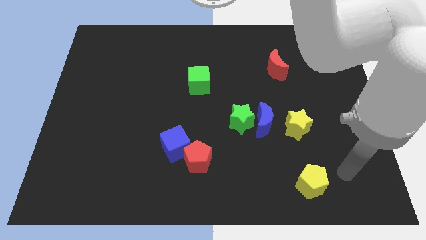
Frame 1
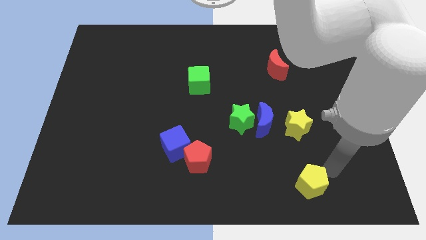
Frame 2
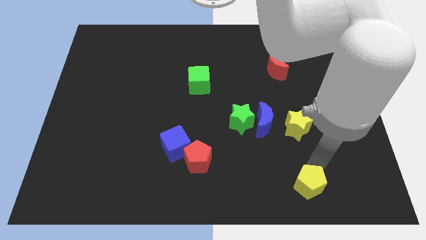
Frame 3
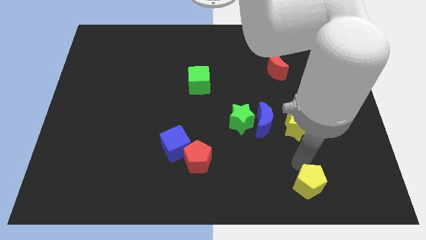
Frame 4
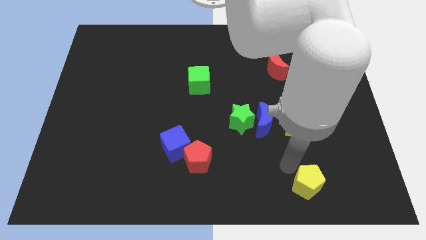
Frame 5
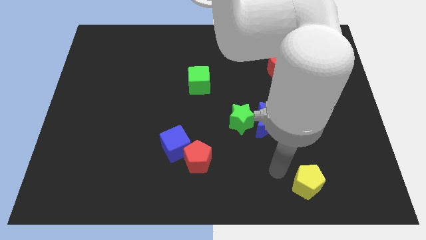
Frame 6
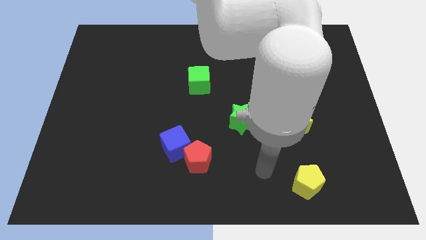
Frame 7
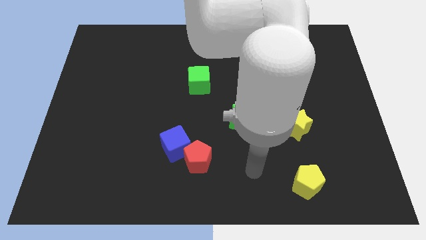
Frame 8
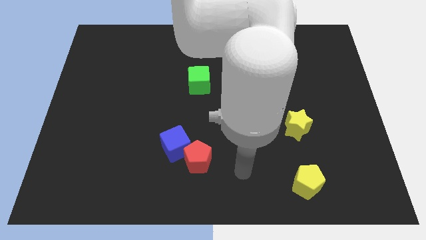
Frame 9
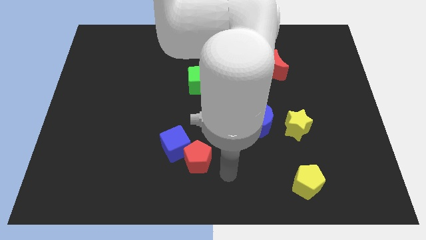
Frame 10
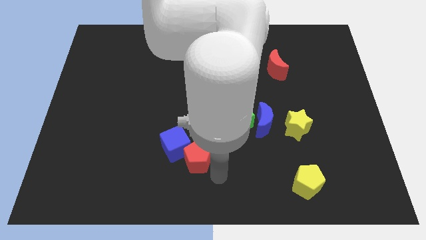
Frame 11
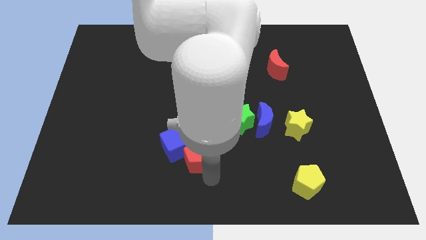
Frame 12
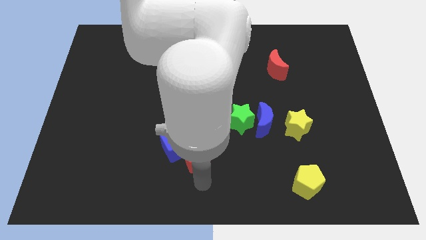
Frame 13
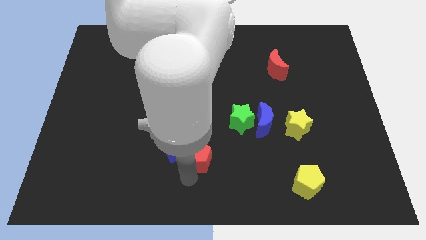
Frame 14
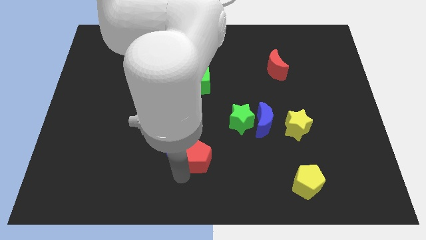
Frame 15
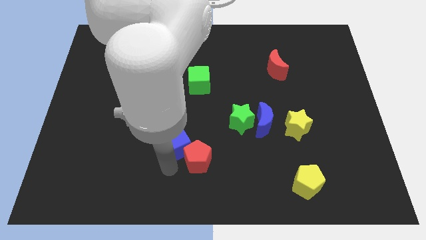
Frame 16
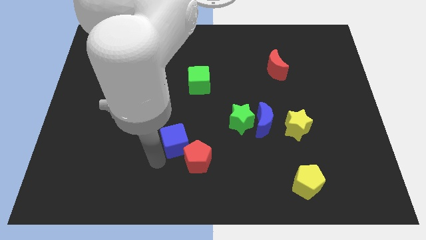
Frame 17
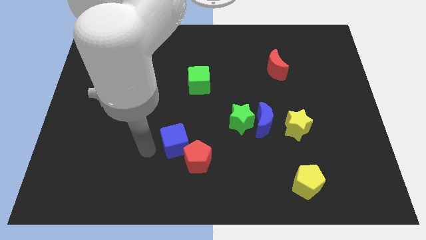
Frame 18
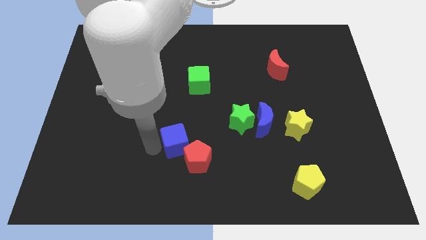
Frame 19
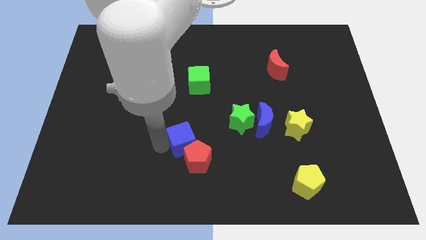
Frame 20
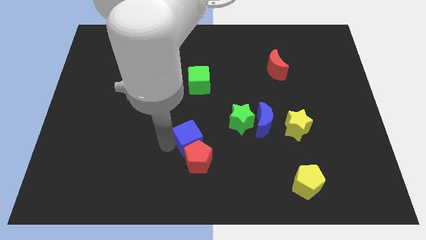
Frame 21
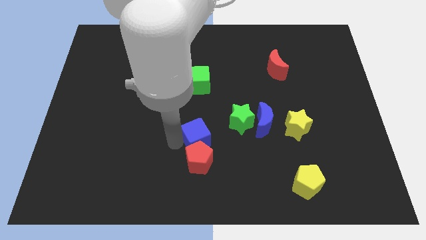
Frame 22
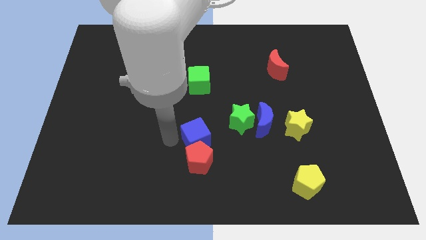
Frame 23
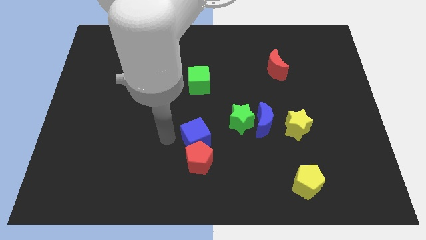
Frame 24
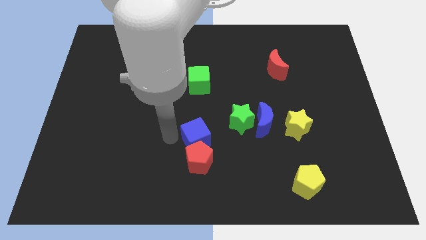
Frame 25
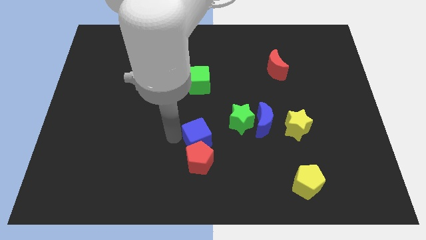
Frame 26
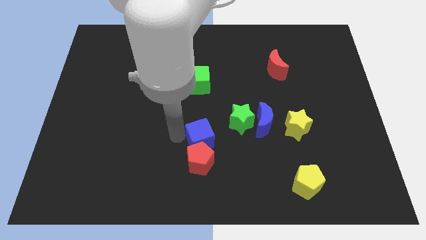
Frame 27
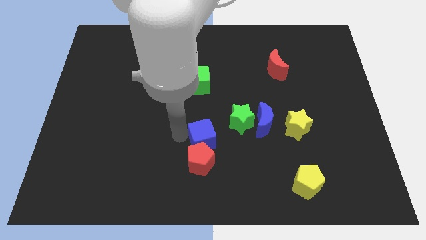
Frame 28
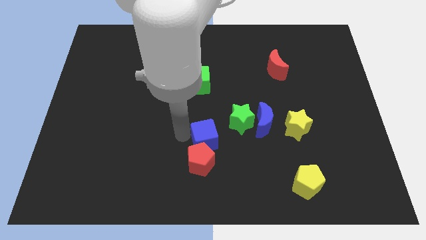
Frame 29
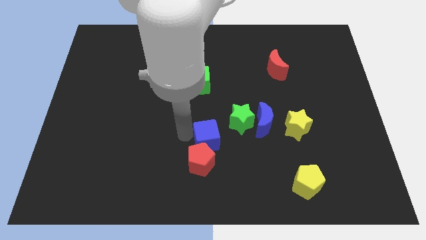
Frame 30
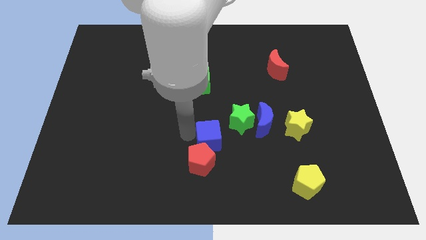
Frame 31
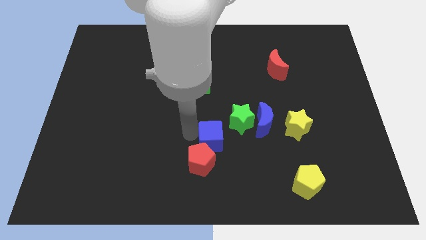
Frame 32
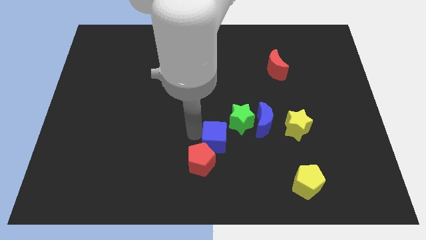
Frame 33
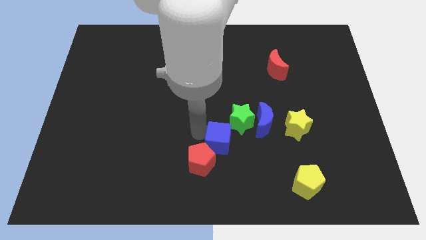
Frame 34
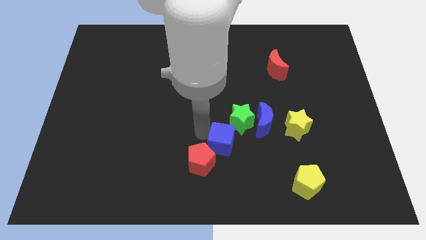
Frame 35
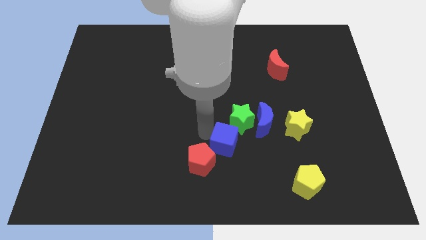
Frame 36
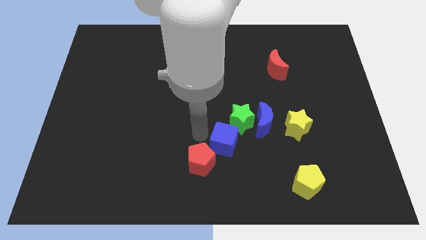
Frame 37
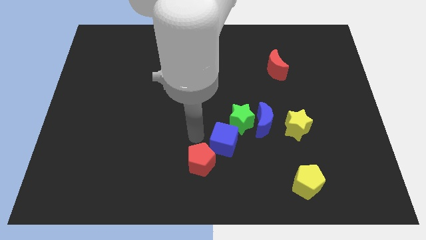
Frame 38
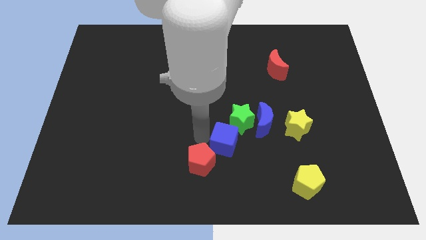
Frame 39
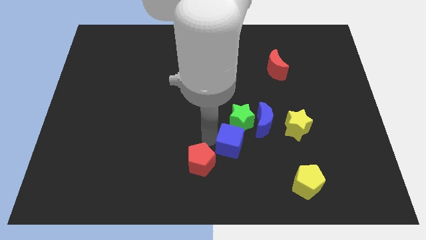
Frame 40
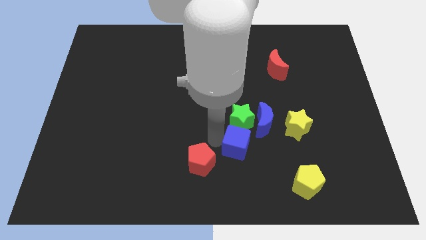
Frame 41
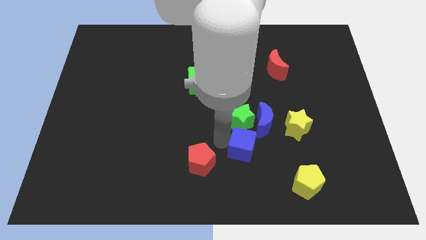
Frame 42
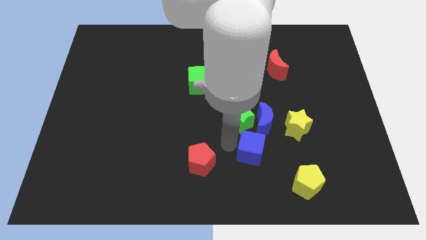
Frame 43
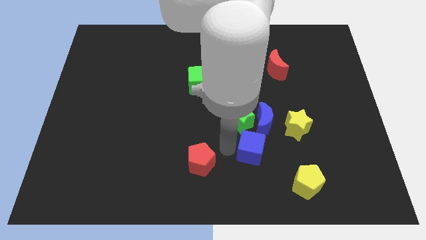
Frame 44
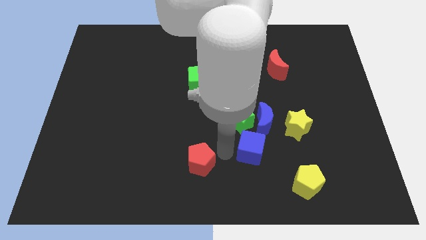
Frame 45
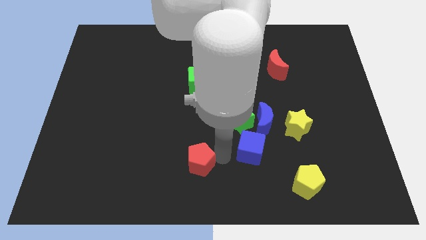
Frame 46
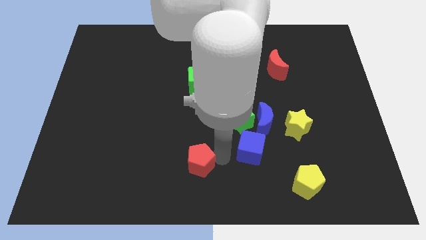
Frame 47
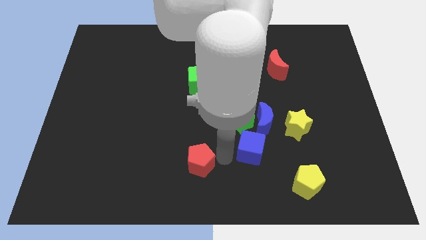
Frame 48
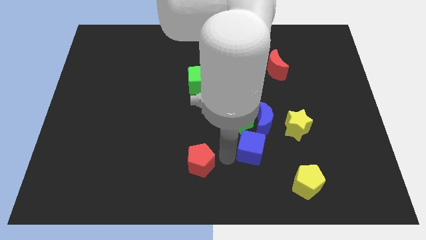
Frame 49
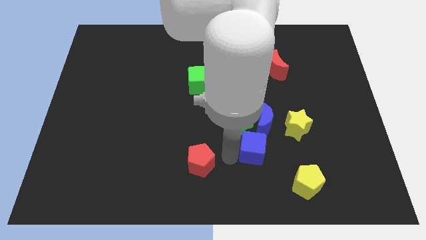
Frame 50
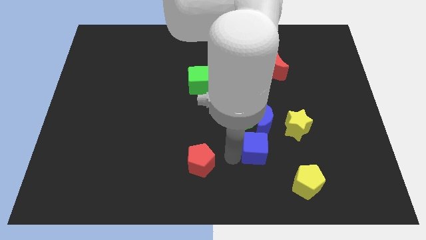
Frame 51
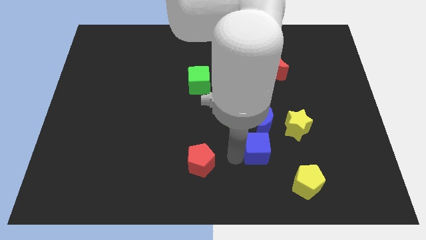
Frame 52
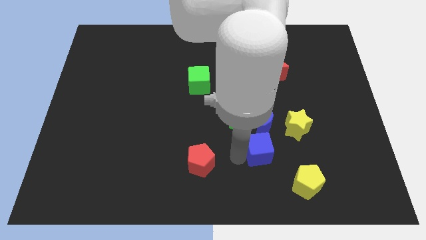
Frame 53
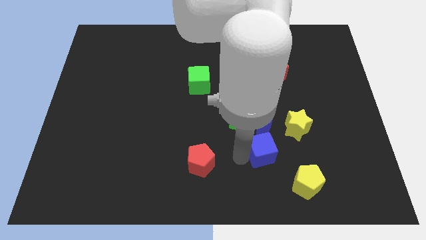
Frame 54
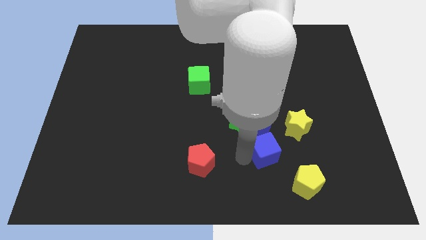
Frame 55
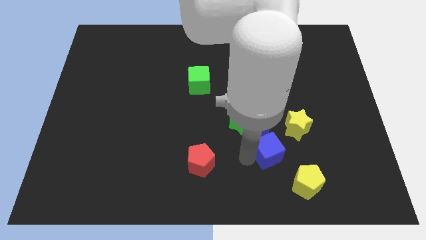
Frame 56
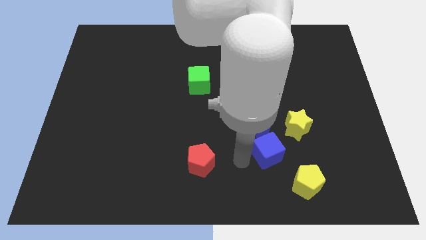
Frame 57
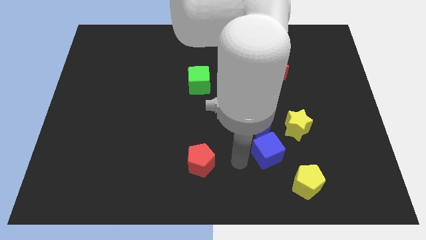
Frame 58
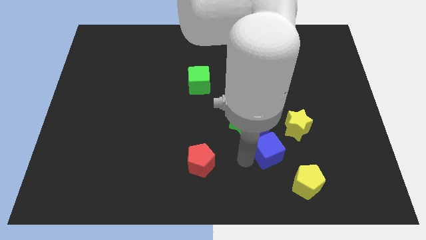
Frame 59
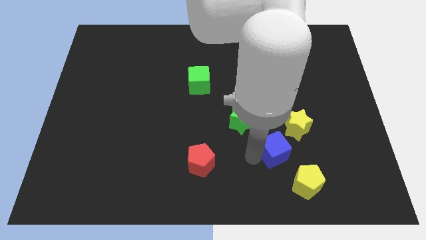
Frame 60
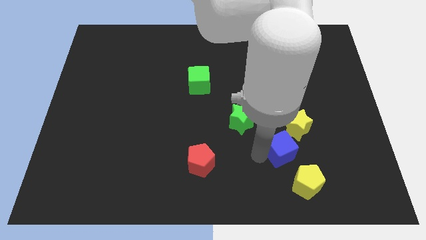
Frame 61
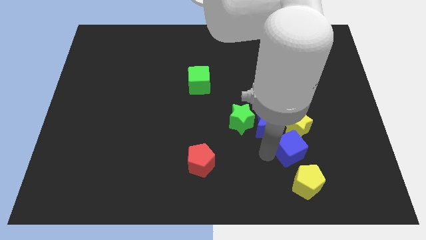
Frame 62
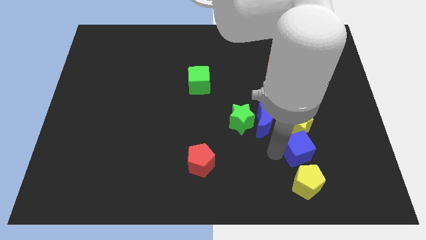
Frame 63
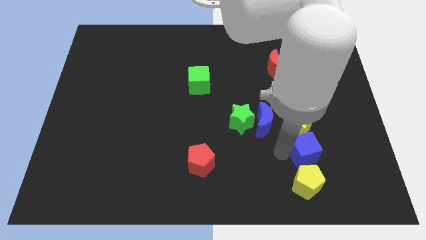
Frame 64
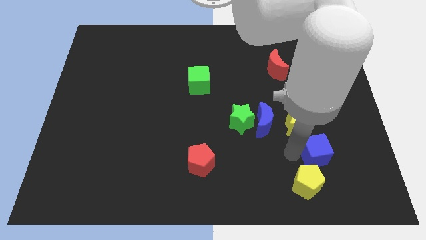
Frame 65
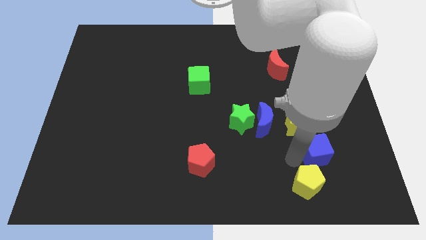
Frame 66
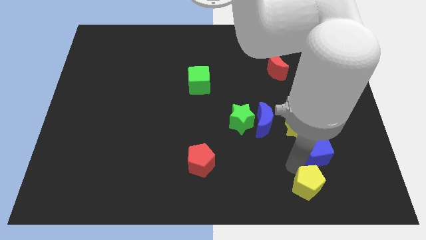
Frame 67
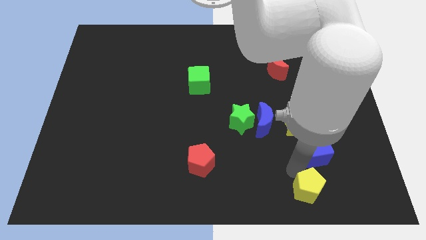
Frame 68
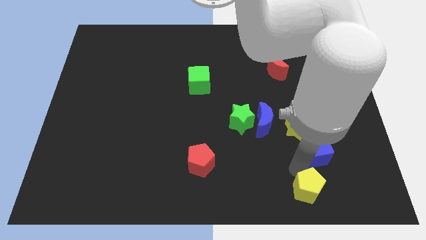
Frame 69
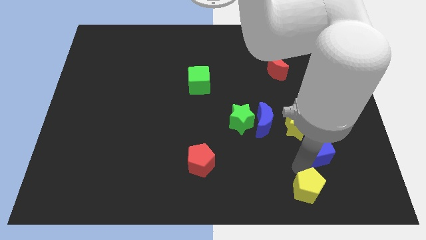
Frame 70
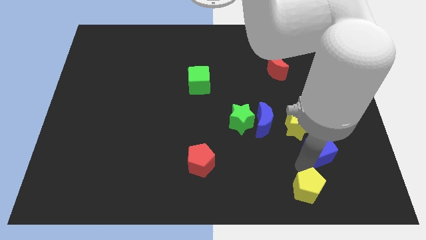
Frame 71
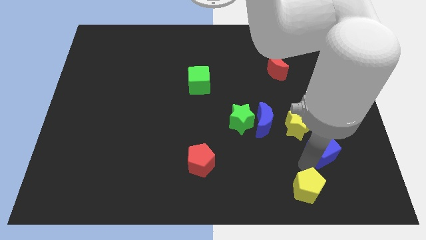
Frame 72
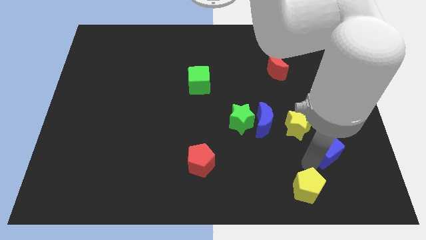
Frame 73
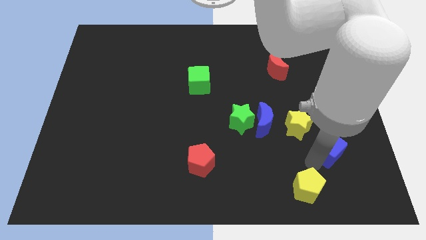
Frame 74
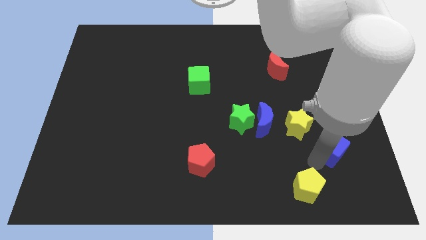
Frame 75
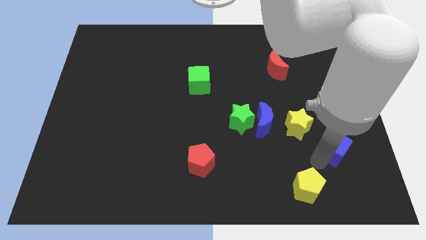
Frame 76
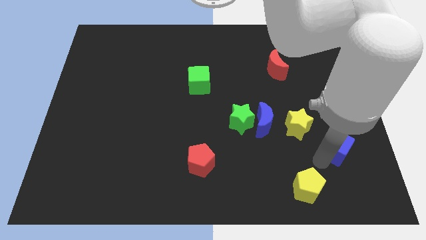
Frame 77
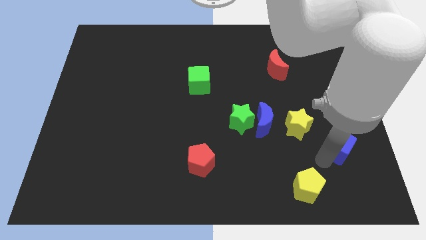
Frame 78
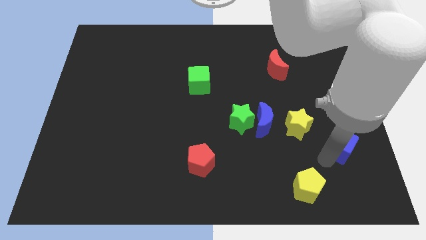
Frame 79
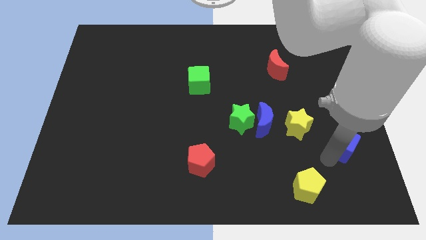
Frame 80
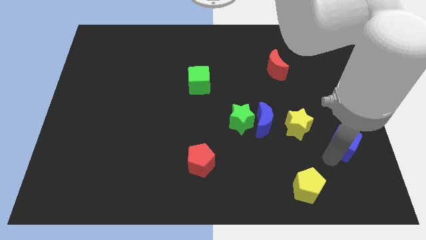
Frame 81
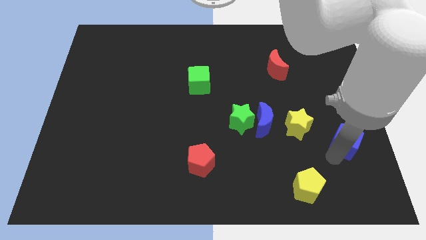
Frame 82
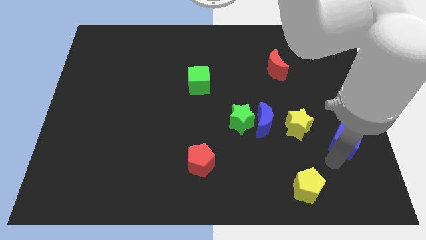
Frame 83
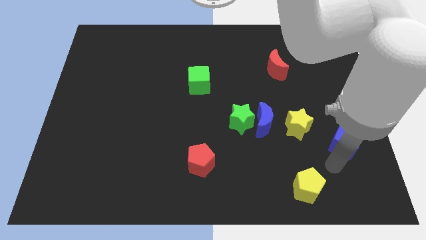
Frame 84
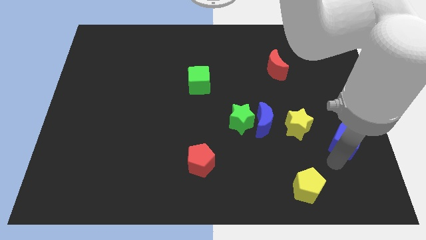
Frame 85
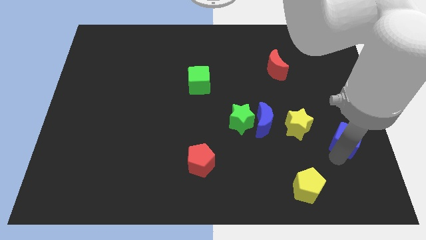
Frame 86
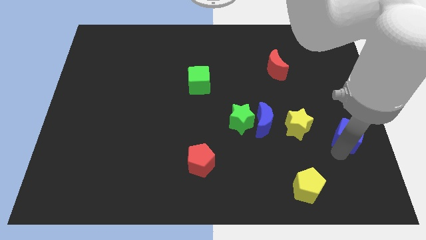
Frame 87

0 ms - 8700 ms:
put the blue cube to the center right
